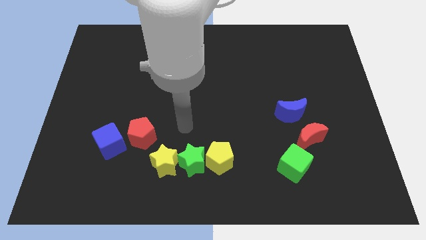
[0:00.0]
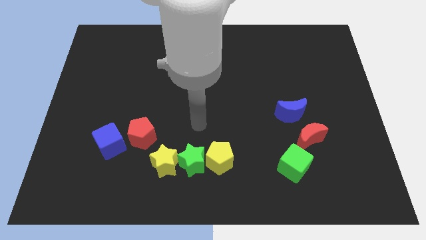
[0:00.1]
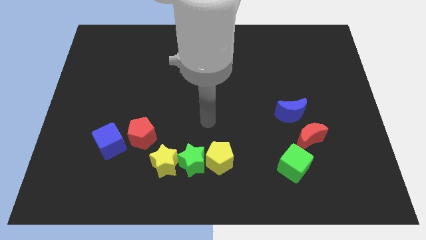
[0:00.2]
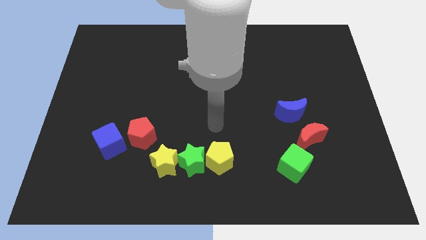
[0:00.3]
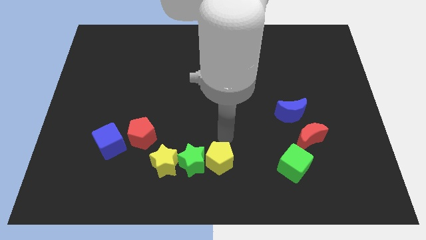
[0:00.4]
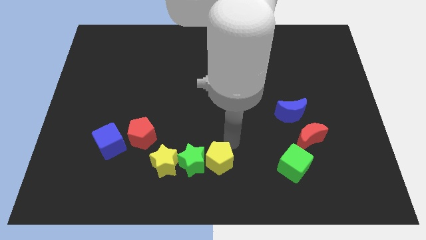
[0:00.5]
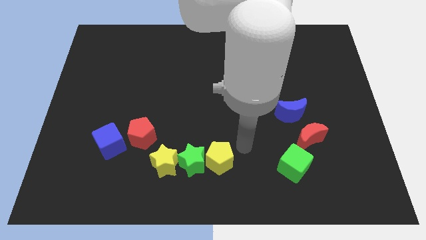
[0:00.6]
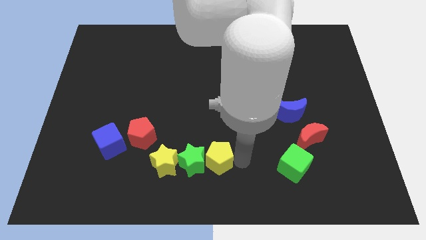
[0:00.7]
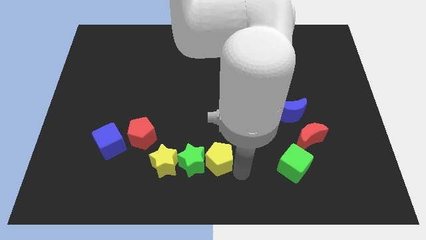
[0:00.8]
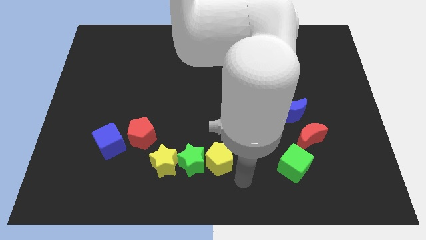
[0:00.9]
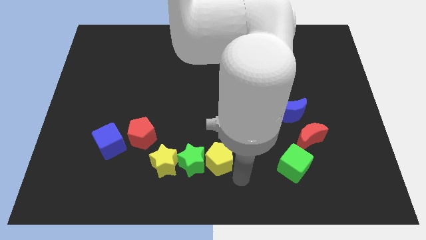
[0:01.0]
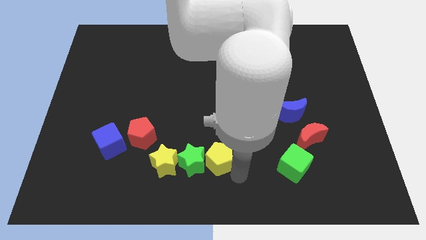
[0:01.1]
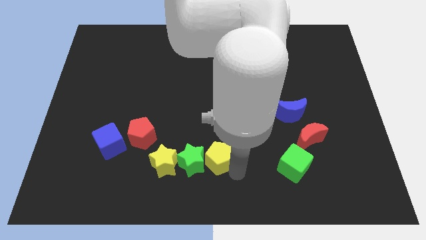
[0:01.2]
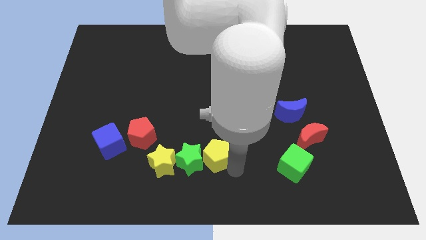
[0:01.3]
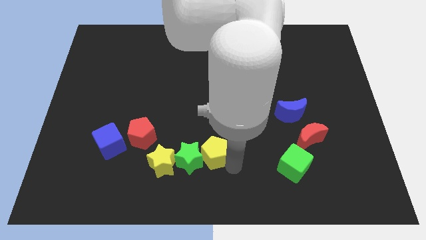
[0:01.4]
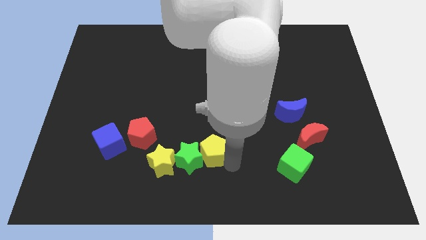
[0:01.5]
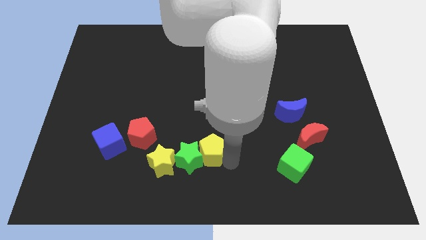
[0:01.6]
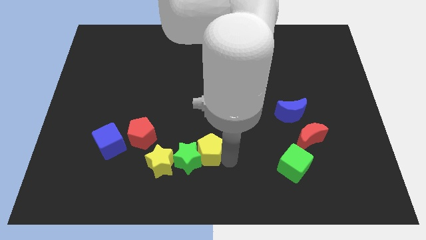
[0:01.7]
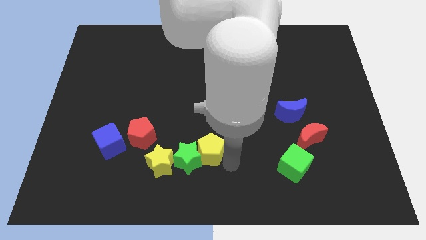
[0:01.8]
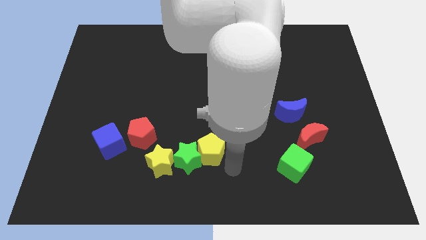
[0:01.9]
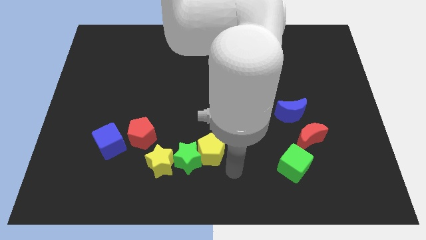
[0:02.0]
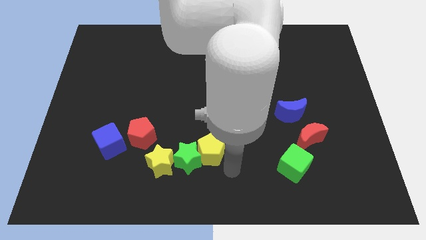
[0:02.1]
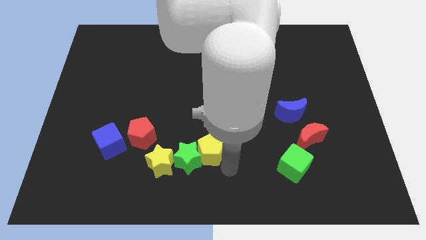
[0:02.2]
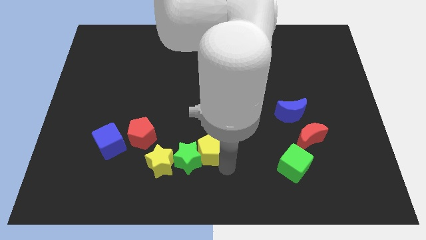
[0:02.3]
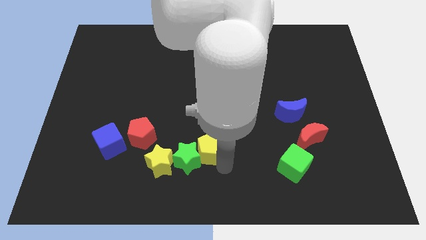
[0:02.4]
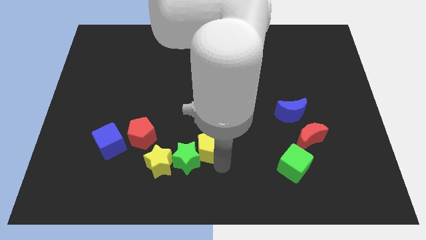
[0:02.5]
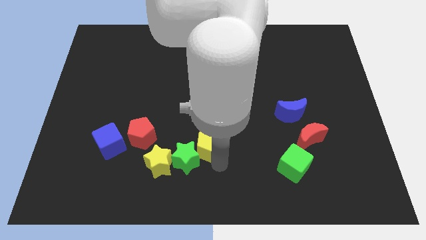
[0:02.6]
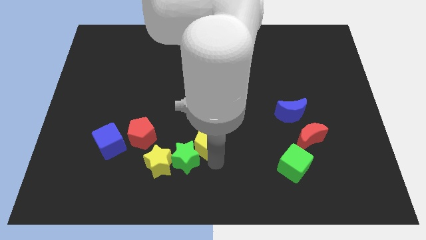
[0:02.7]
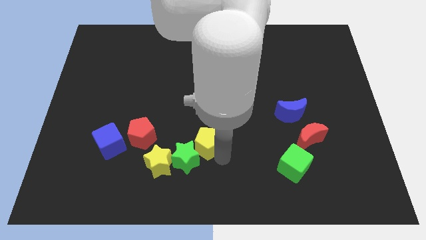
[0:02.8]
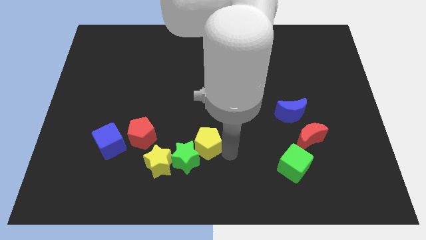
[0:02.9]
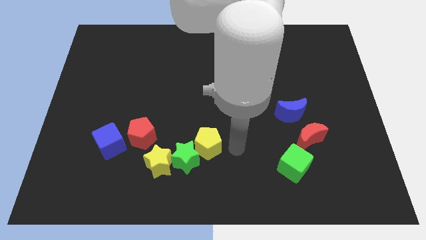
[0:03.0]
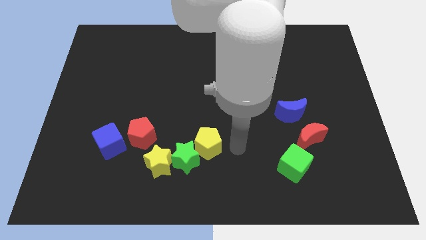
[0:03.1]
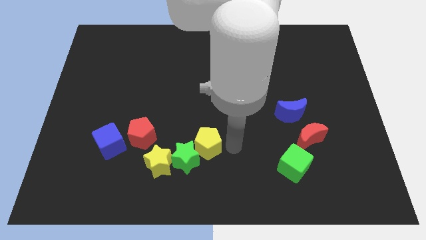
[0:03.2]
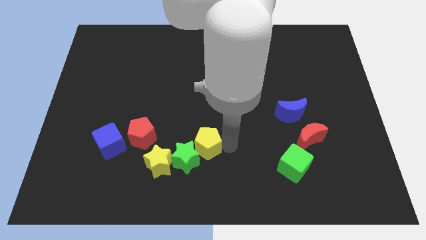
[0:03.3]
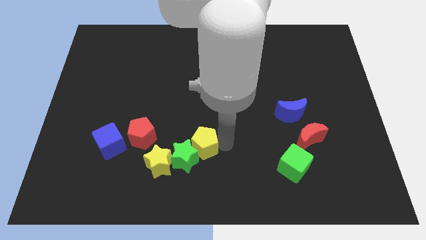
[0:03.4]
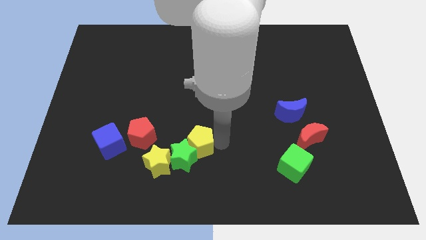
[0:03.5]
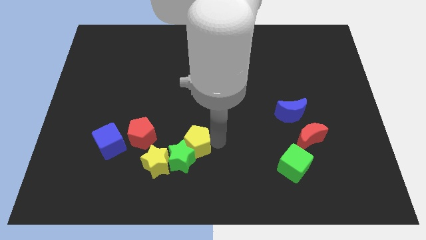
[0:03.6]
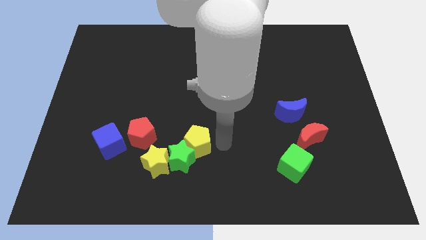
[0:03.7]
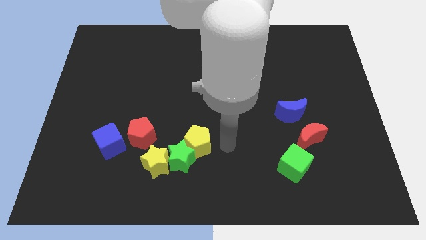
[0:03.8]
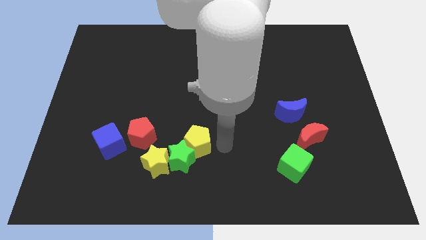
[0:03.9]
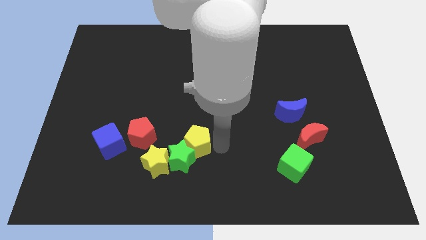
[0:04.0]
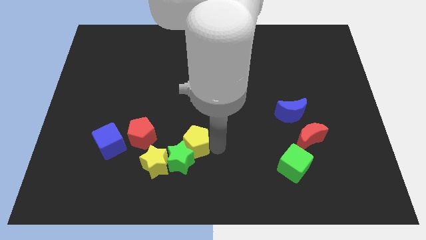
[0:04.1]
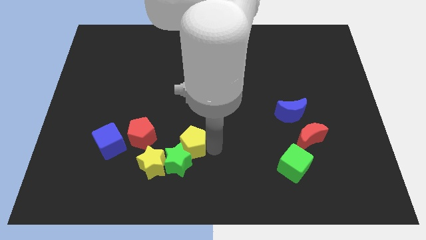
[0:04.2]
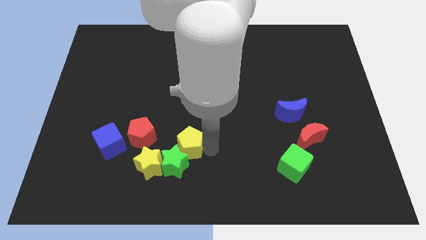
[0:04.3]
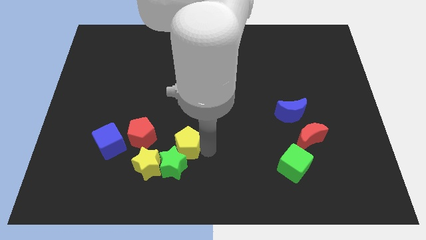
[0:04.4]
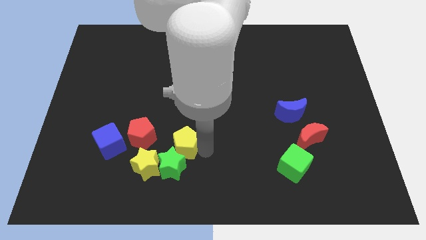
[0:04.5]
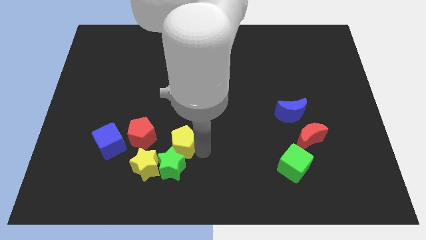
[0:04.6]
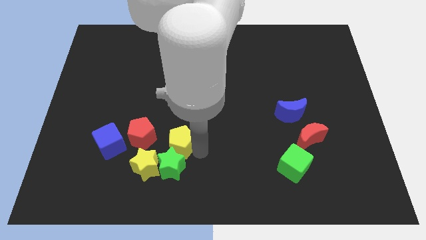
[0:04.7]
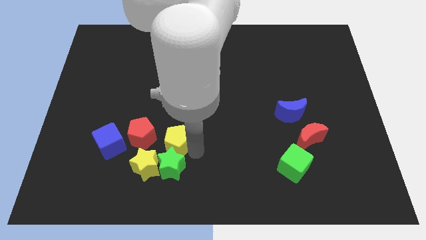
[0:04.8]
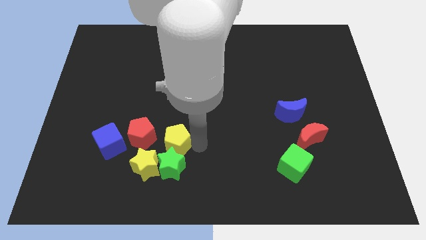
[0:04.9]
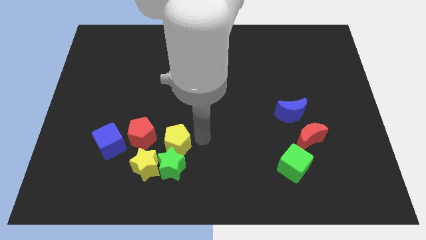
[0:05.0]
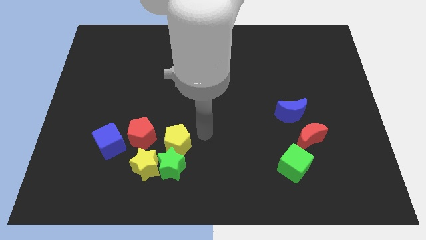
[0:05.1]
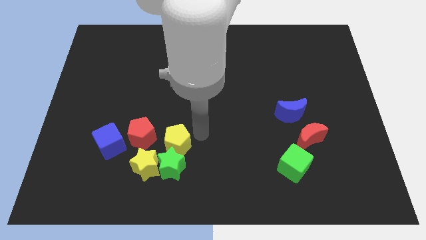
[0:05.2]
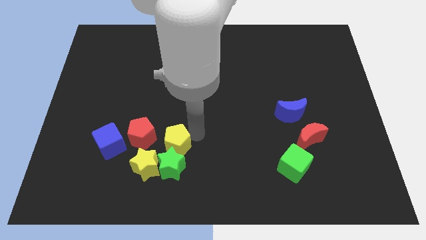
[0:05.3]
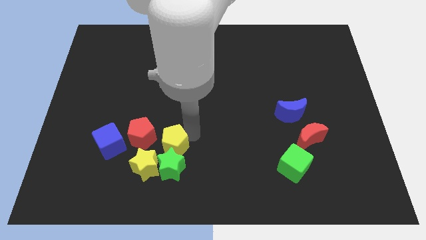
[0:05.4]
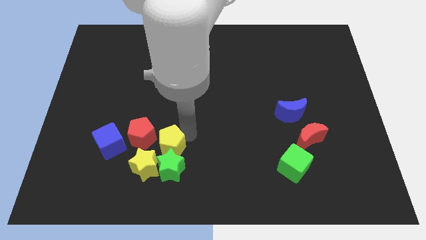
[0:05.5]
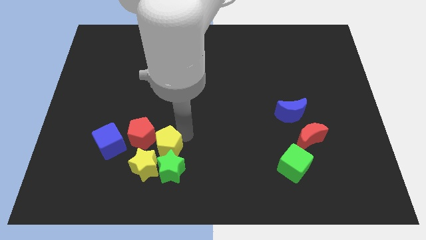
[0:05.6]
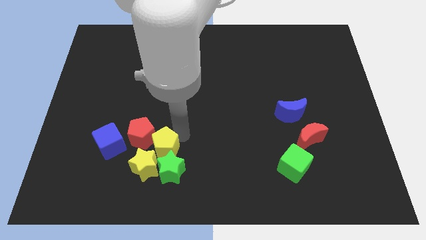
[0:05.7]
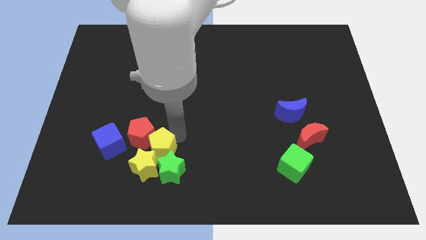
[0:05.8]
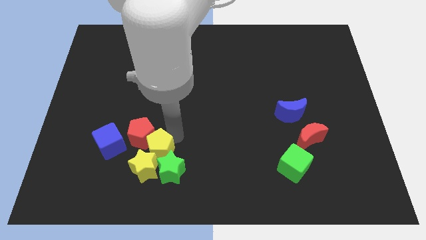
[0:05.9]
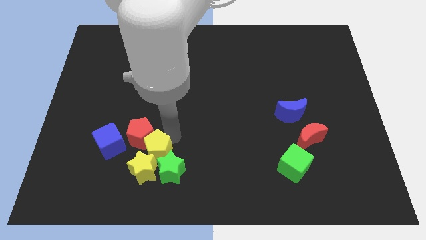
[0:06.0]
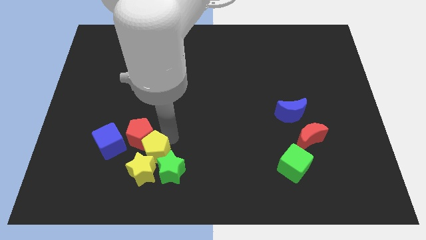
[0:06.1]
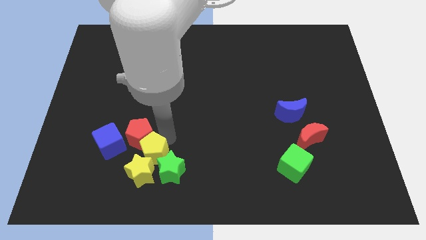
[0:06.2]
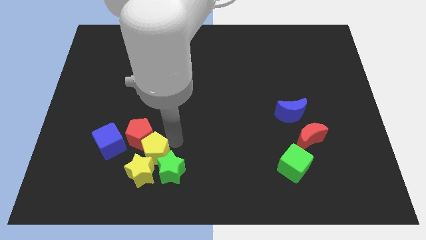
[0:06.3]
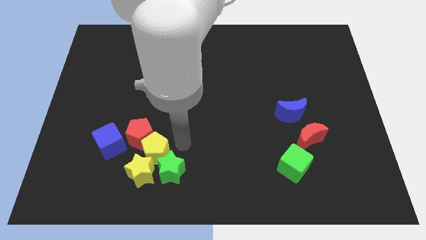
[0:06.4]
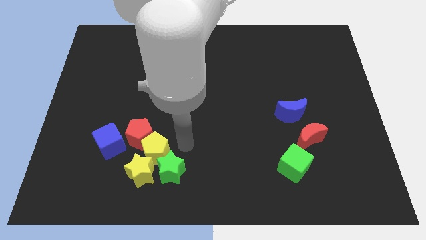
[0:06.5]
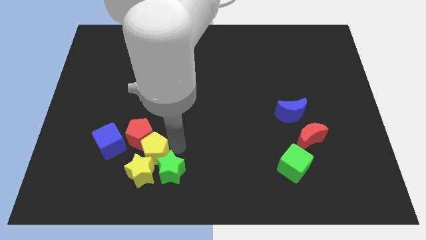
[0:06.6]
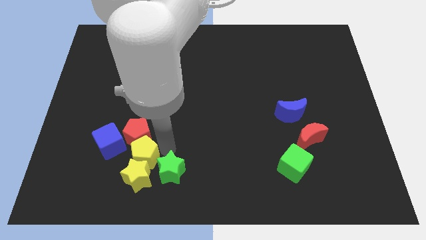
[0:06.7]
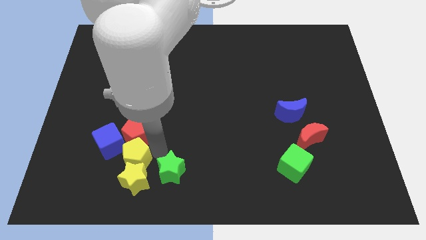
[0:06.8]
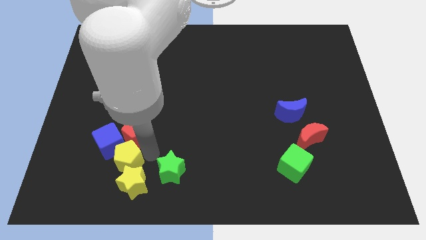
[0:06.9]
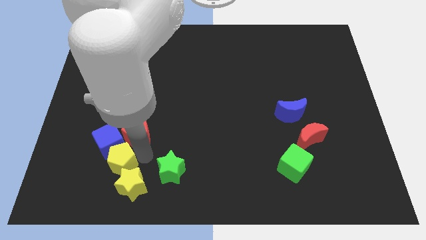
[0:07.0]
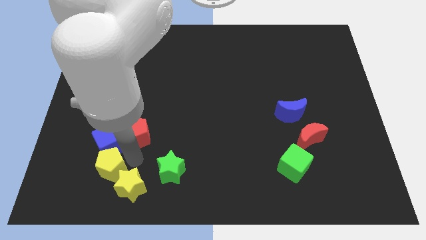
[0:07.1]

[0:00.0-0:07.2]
slide the yellow pentagon to the bottom left of the blue cube
